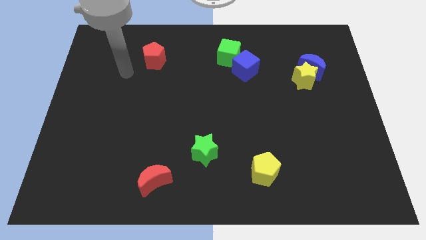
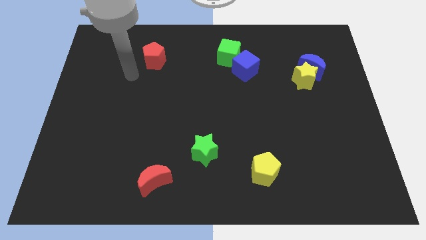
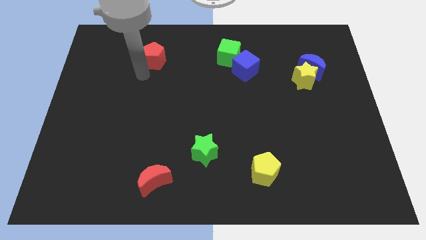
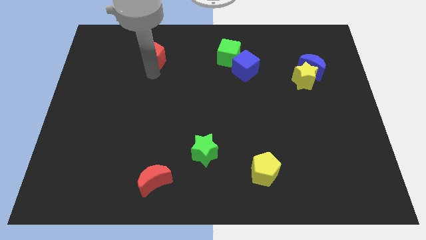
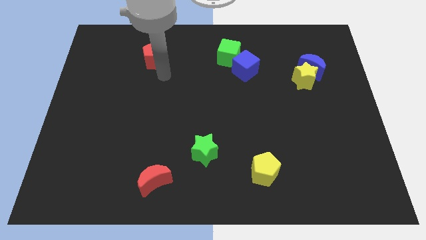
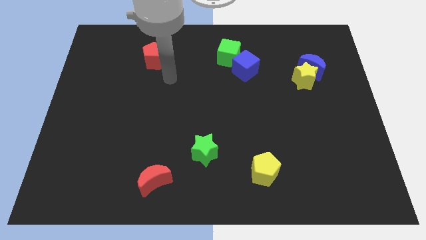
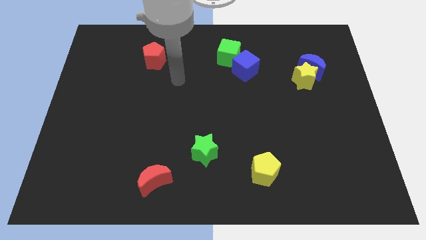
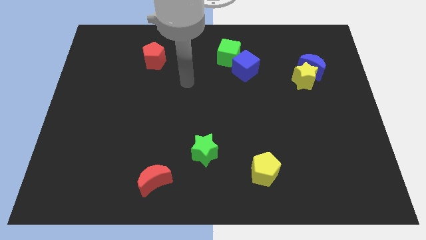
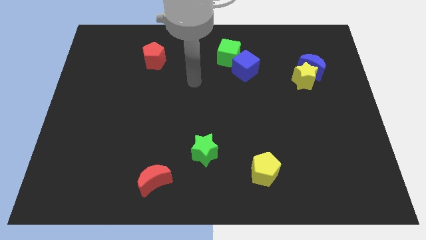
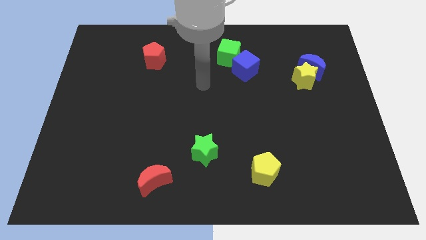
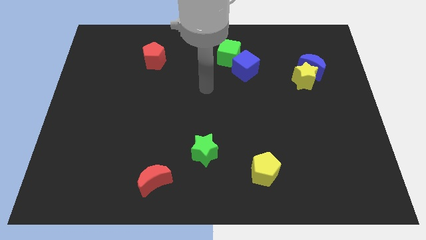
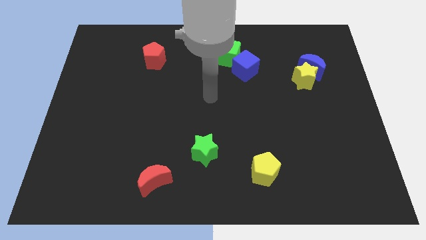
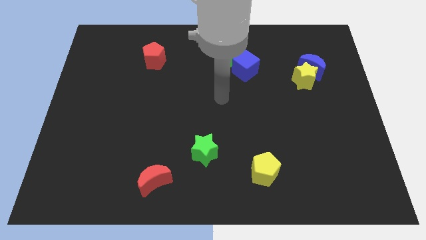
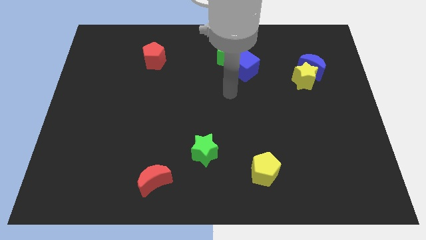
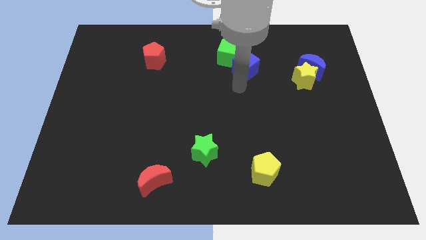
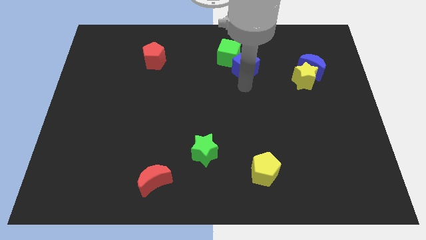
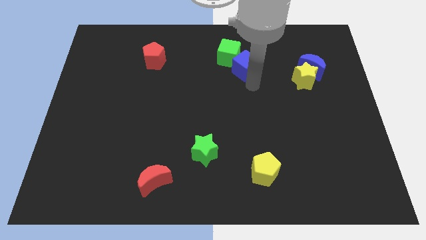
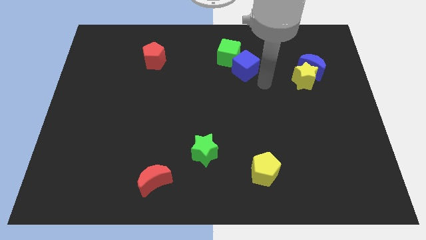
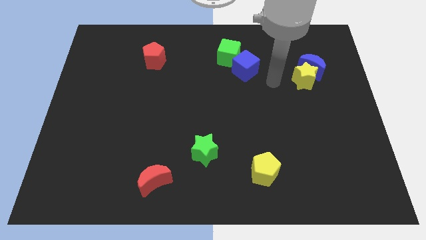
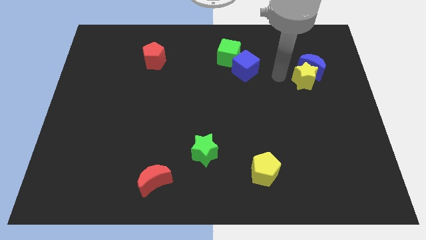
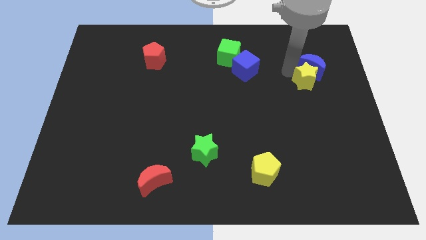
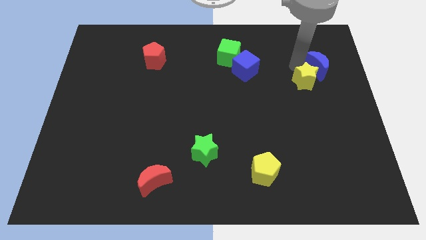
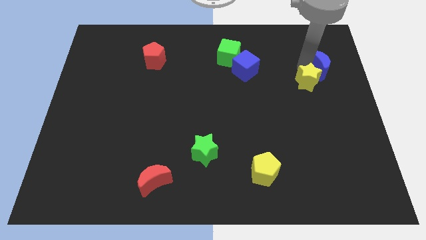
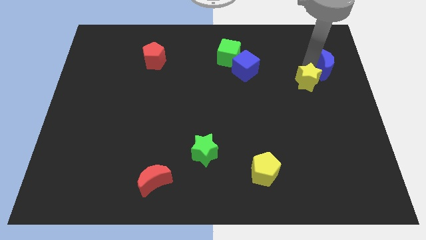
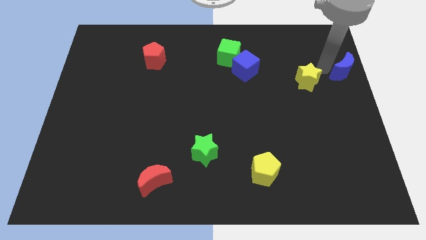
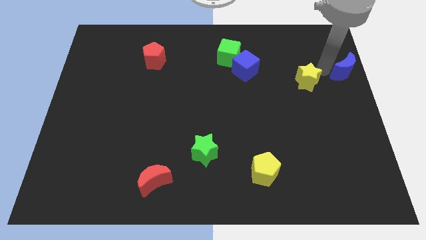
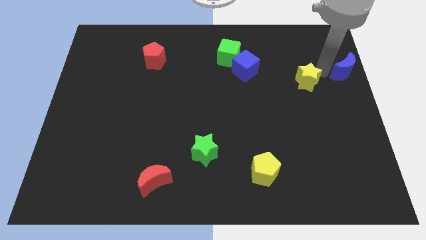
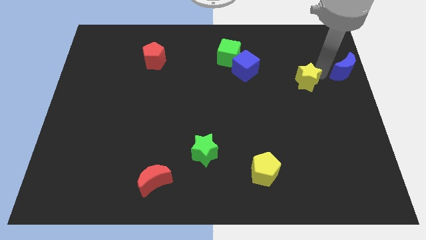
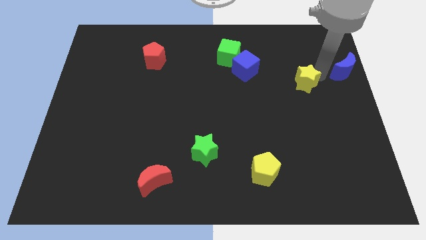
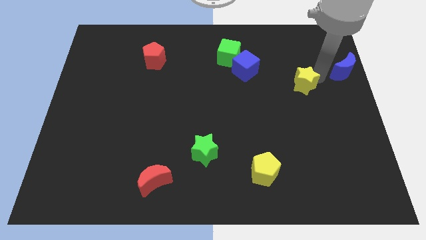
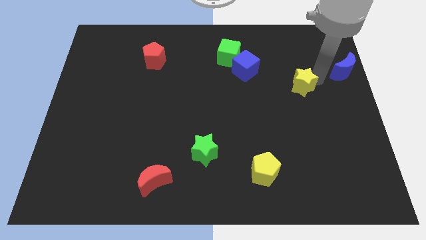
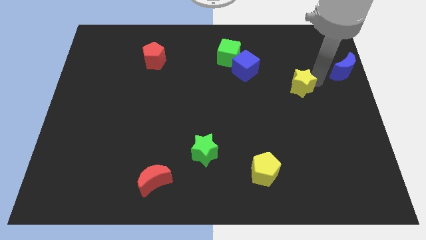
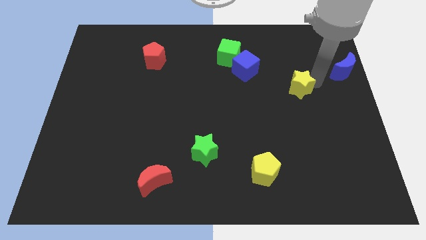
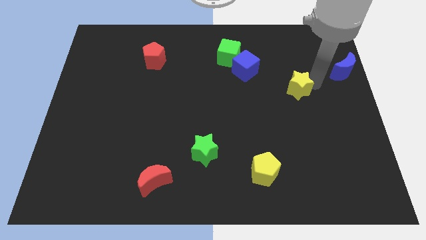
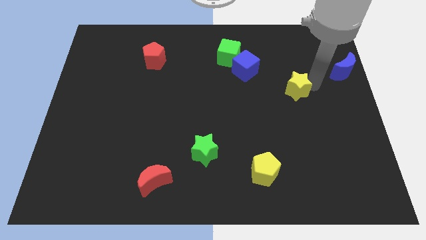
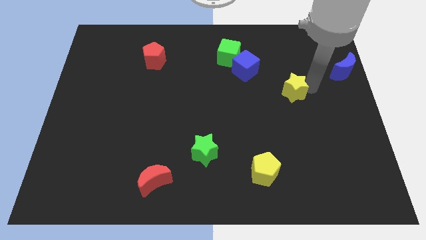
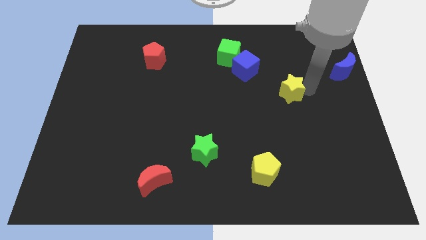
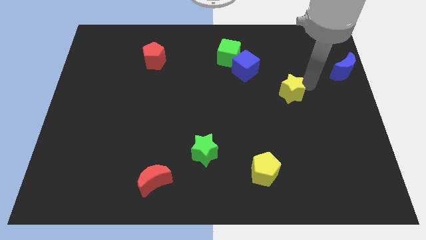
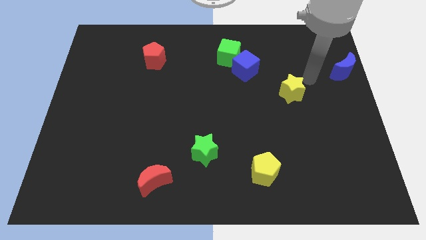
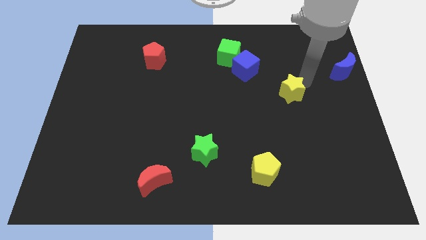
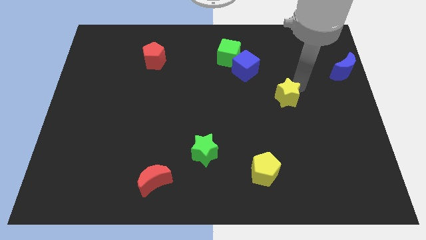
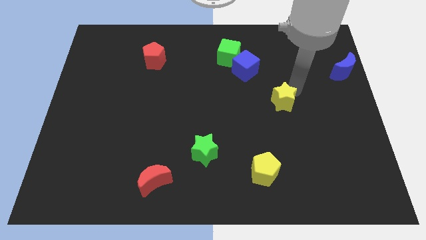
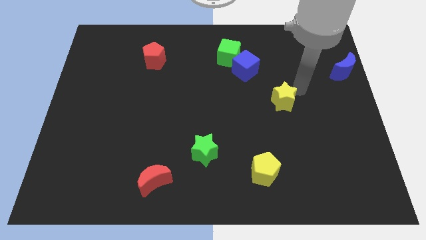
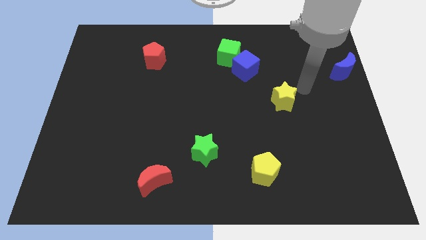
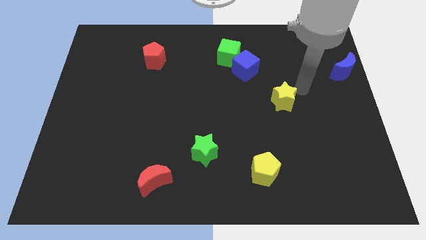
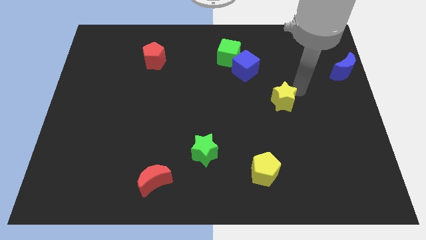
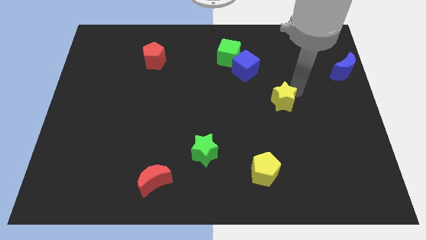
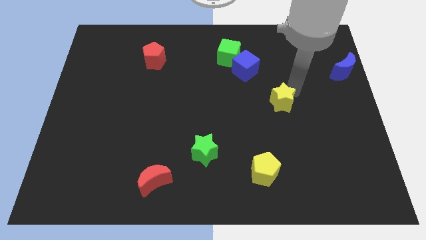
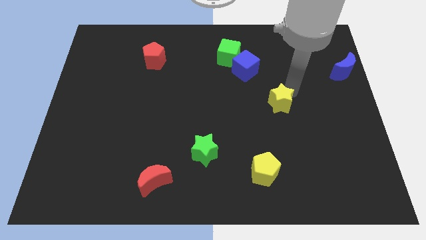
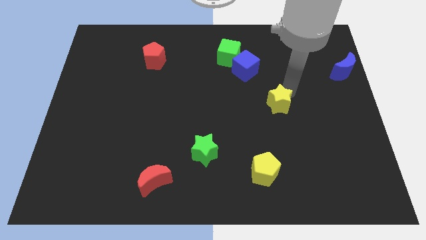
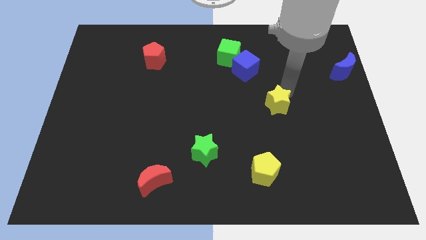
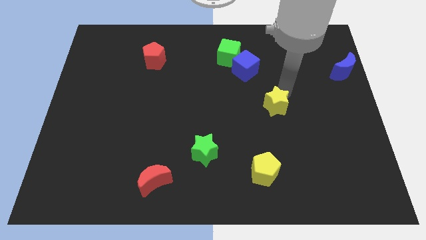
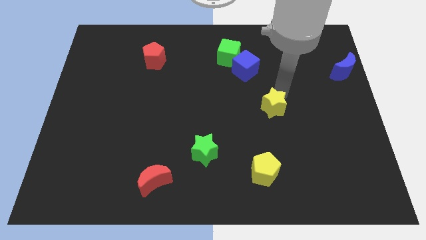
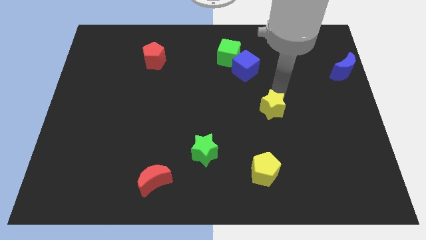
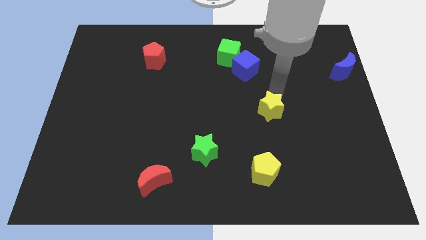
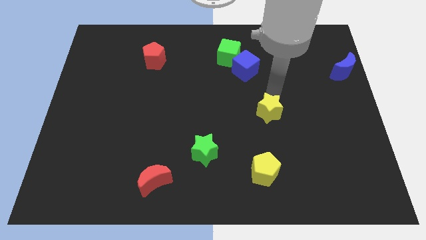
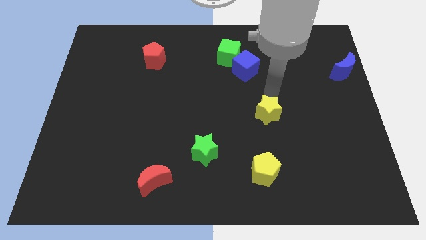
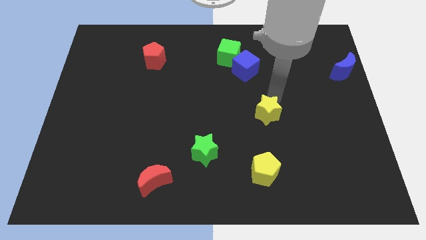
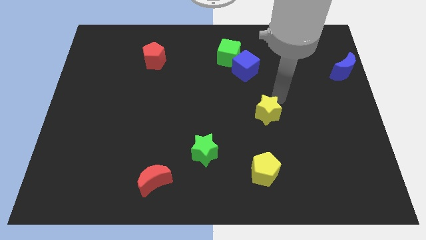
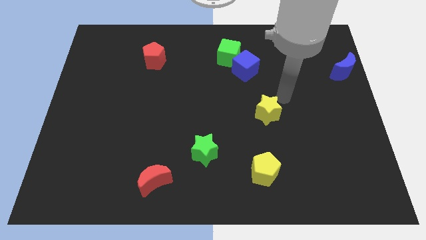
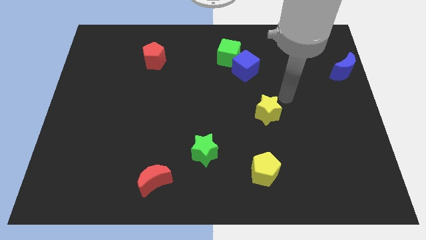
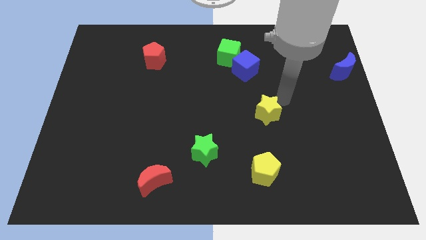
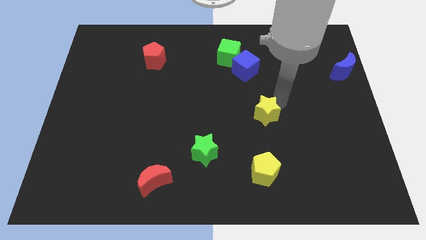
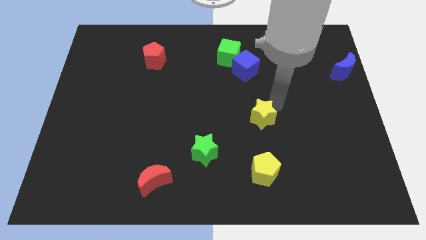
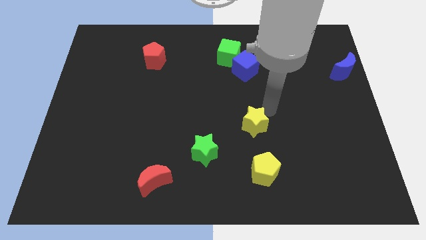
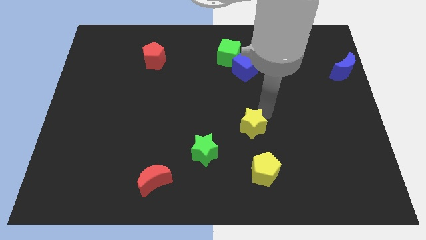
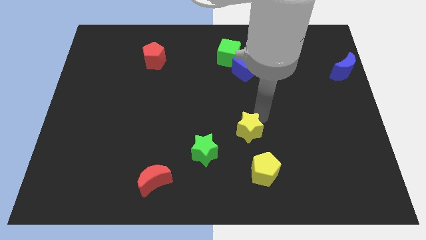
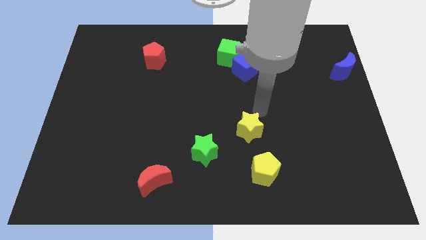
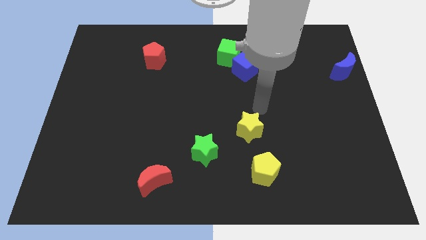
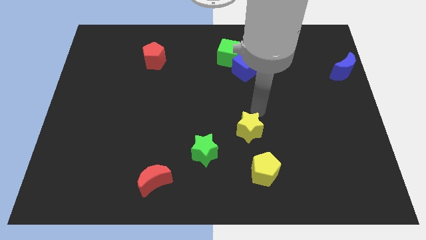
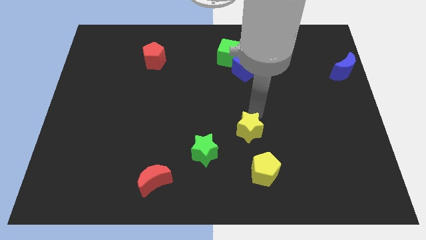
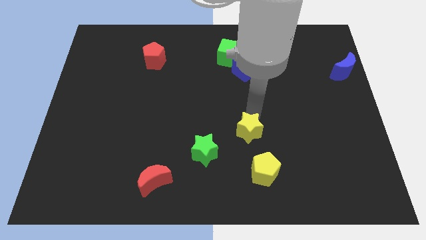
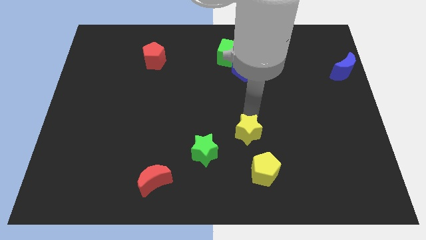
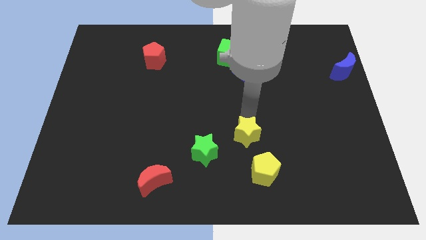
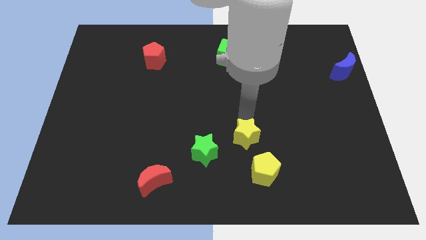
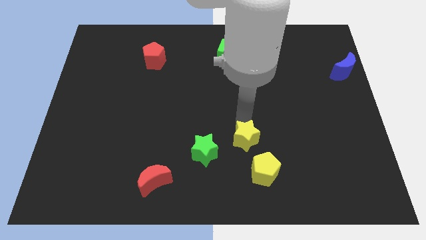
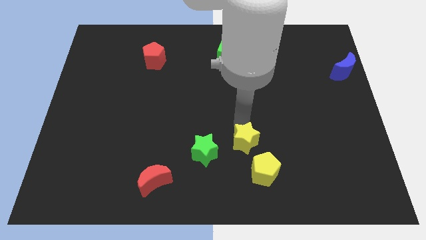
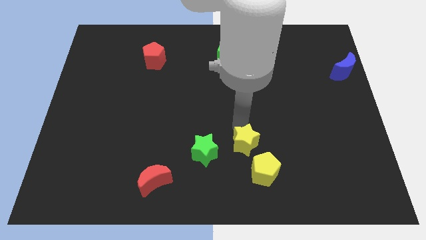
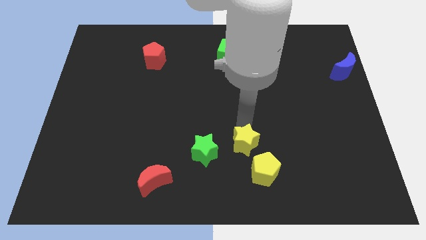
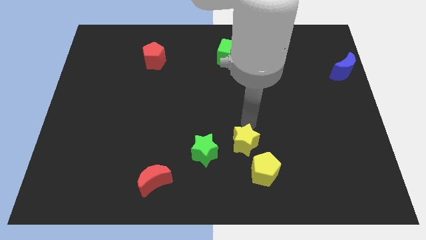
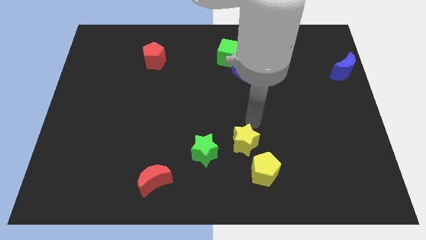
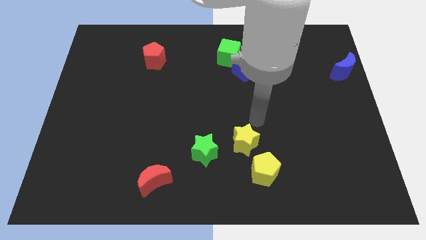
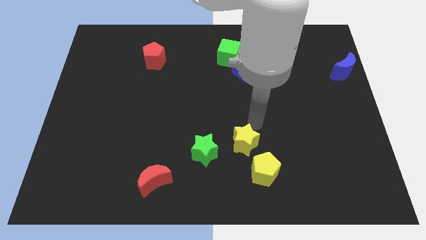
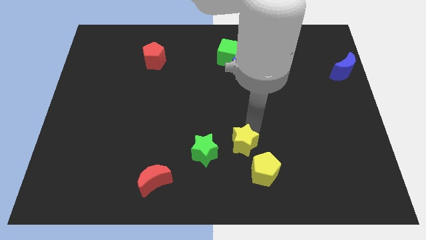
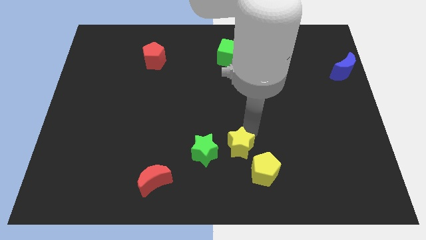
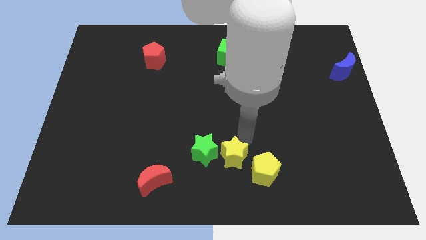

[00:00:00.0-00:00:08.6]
move the yellow star to the bottom
